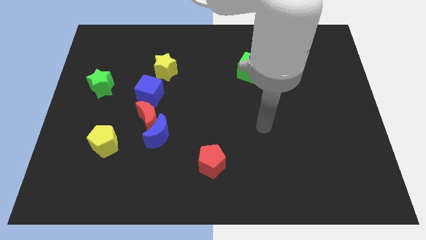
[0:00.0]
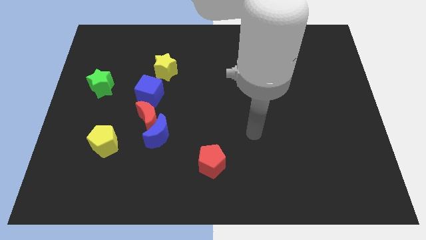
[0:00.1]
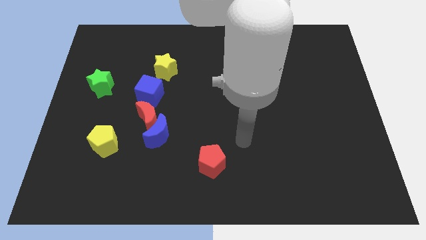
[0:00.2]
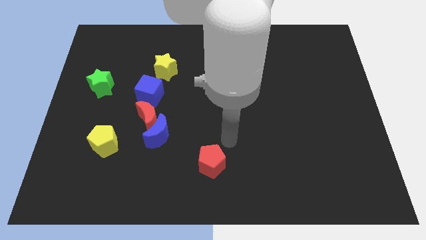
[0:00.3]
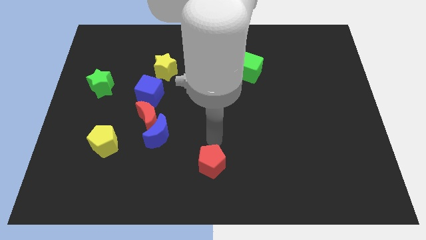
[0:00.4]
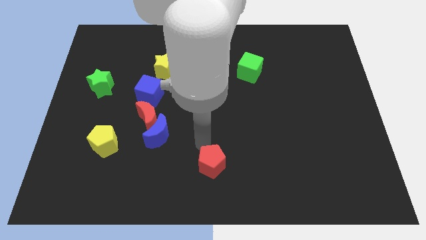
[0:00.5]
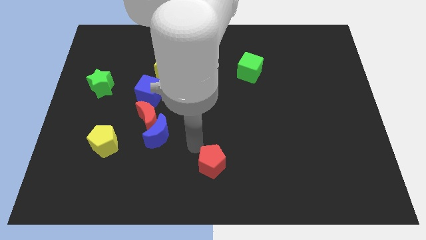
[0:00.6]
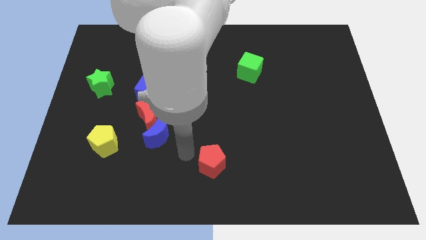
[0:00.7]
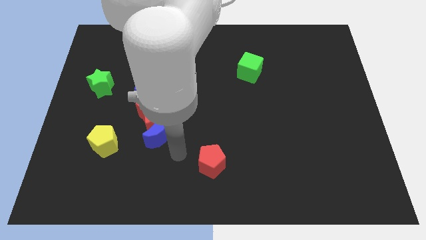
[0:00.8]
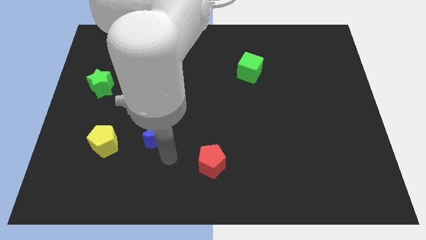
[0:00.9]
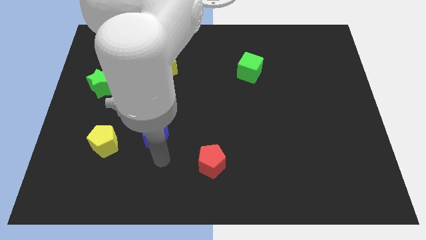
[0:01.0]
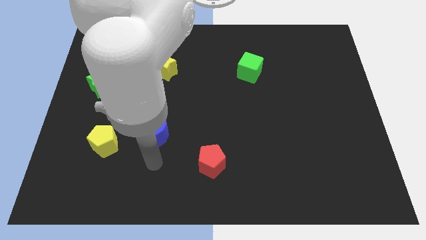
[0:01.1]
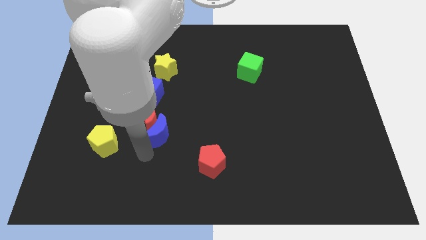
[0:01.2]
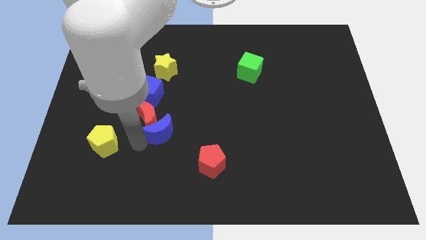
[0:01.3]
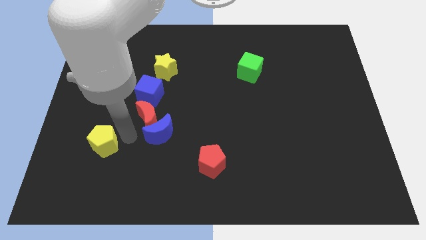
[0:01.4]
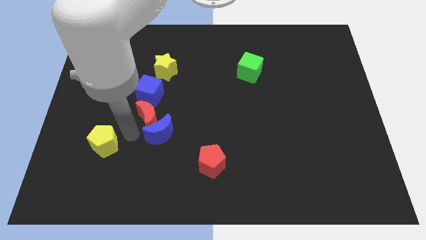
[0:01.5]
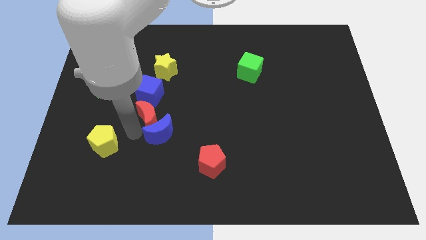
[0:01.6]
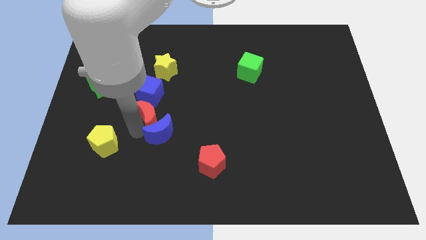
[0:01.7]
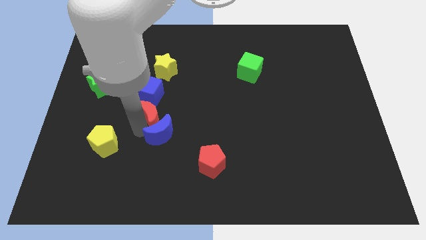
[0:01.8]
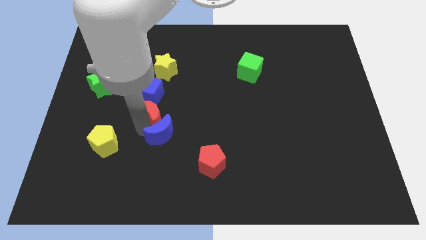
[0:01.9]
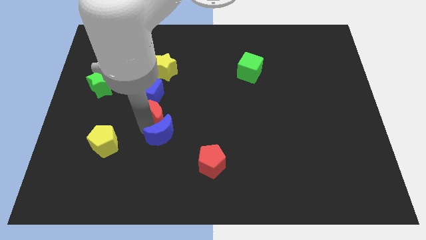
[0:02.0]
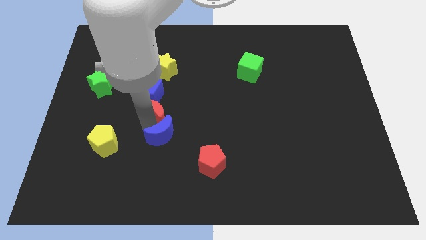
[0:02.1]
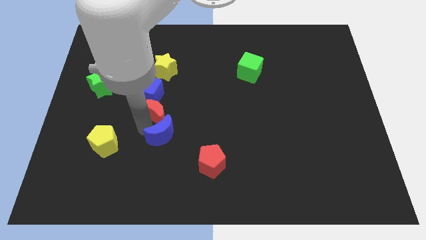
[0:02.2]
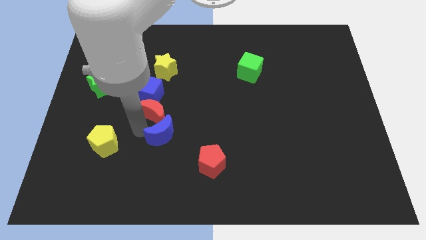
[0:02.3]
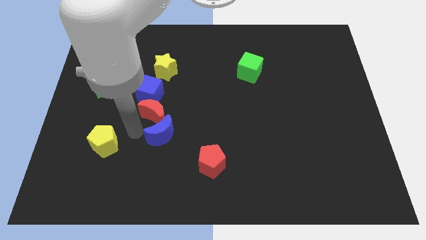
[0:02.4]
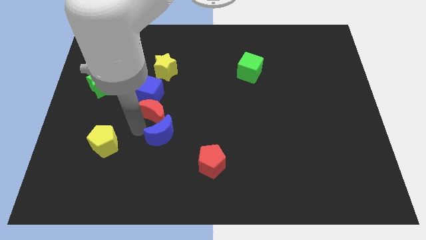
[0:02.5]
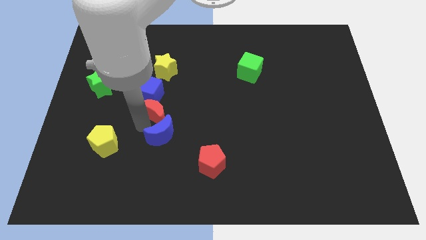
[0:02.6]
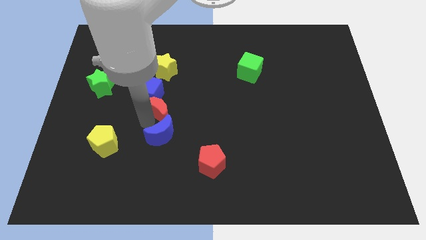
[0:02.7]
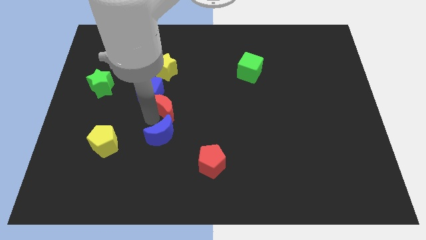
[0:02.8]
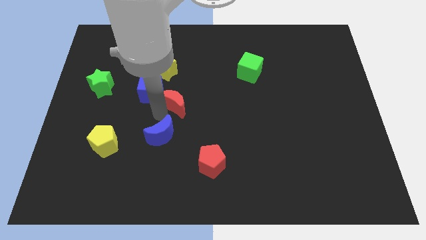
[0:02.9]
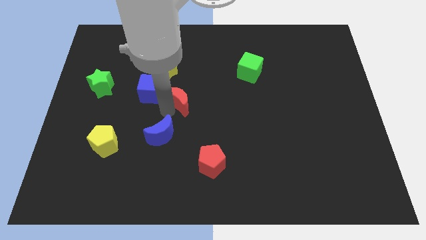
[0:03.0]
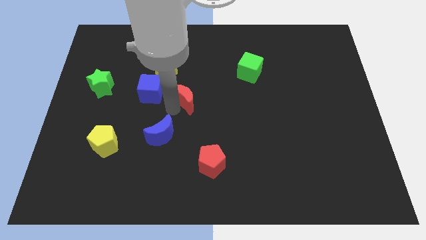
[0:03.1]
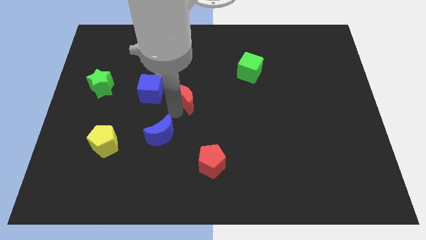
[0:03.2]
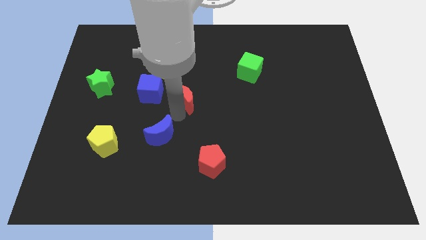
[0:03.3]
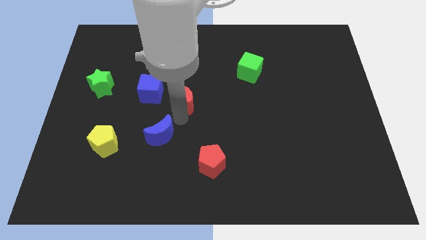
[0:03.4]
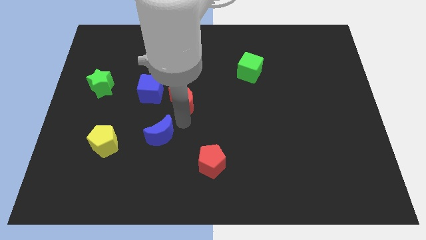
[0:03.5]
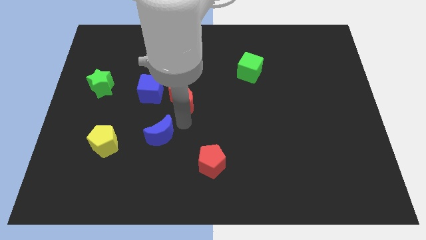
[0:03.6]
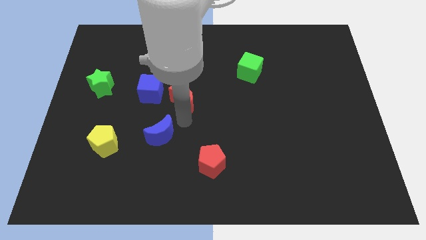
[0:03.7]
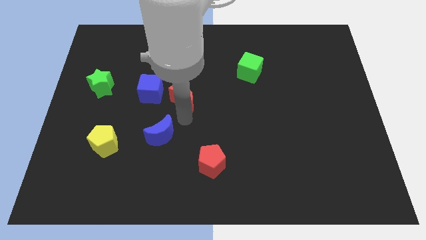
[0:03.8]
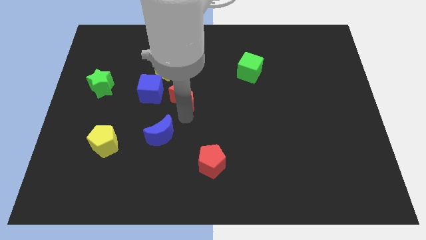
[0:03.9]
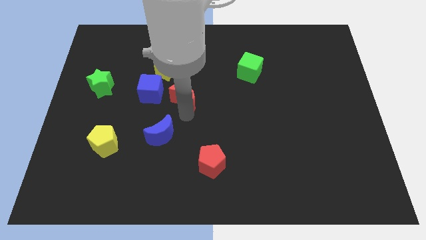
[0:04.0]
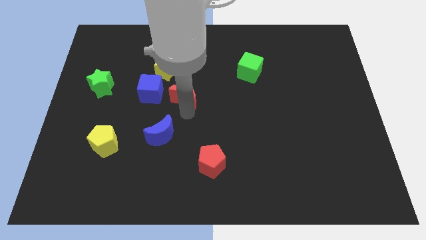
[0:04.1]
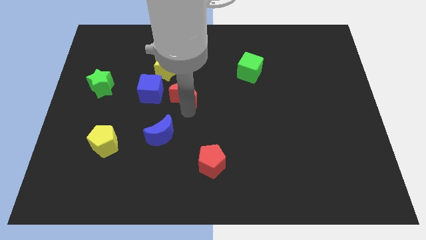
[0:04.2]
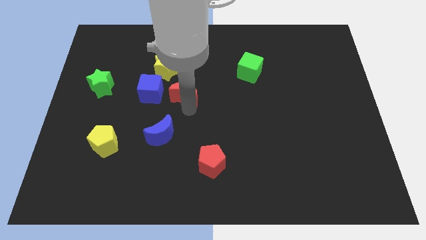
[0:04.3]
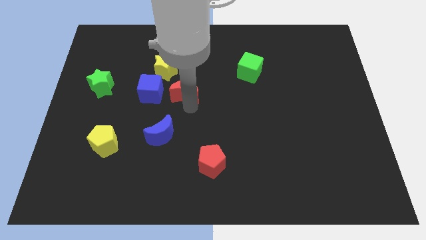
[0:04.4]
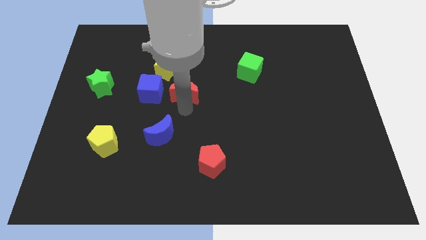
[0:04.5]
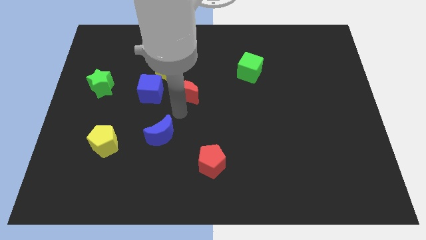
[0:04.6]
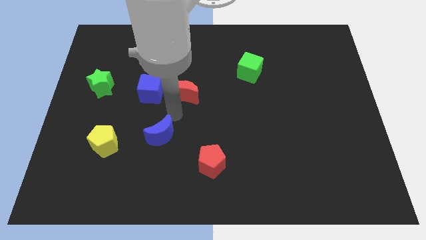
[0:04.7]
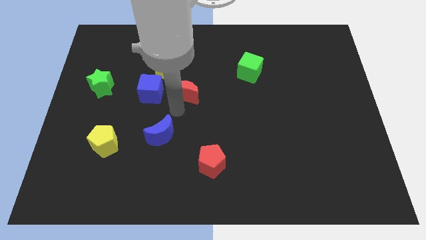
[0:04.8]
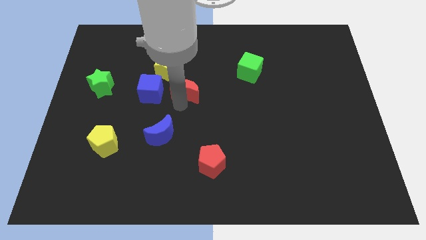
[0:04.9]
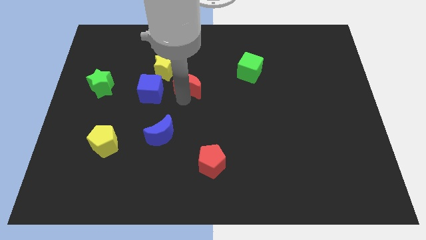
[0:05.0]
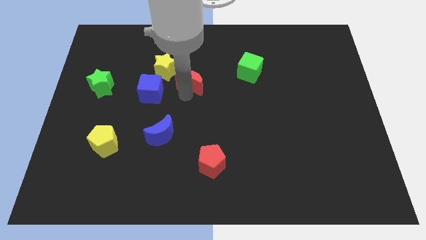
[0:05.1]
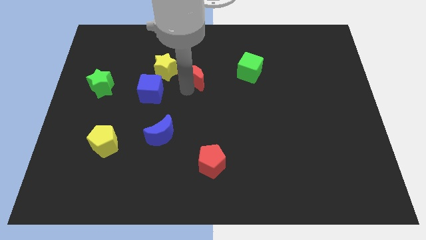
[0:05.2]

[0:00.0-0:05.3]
push the red moon to the left side of the green cube
